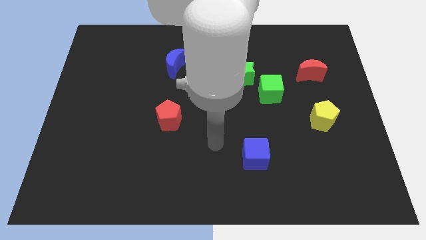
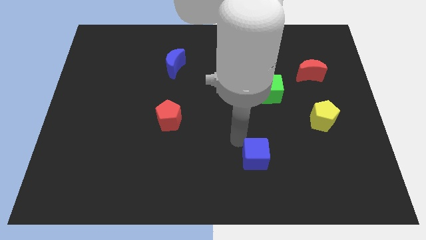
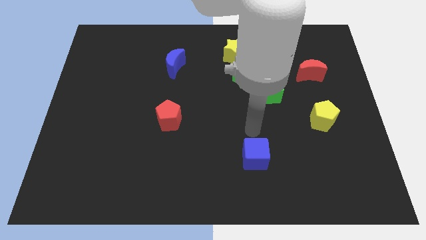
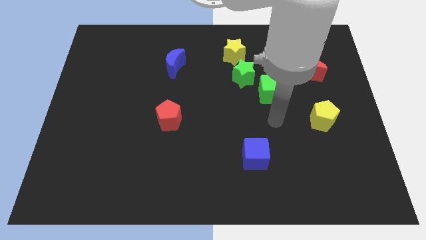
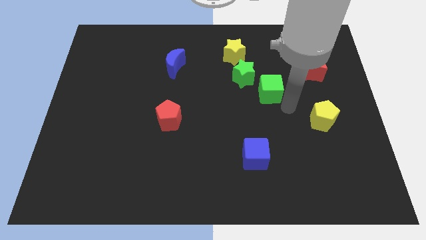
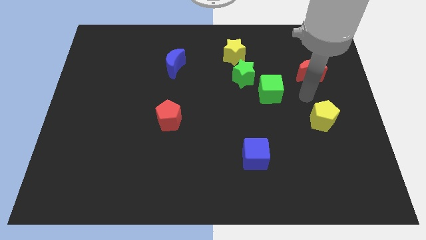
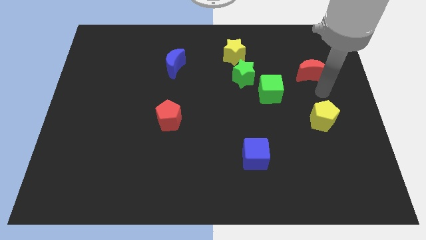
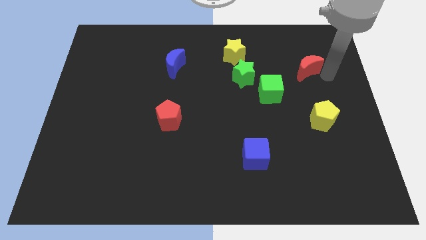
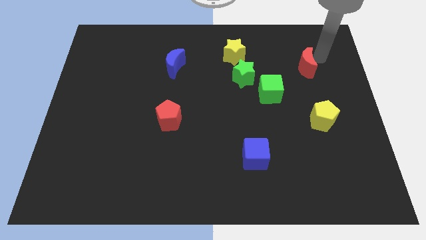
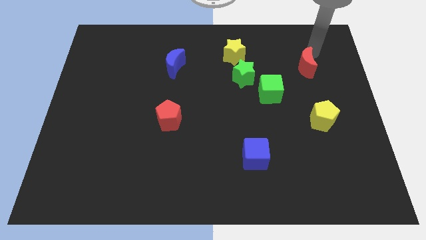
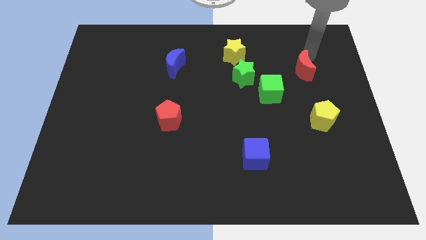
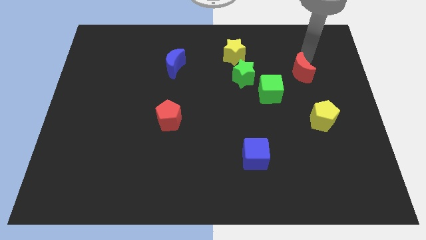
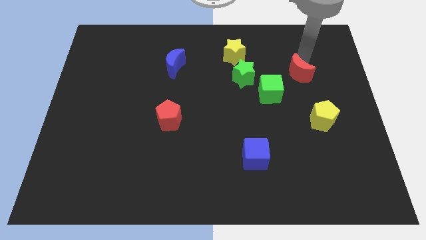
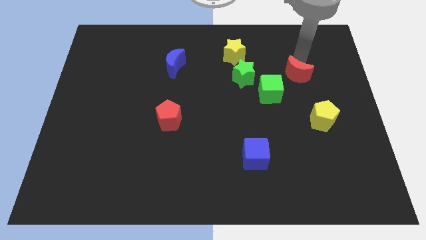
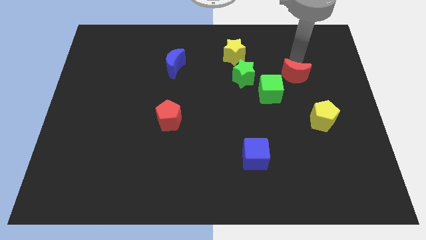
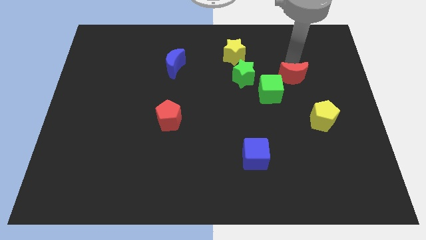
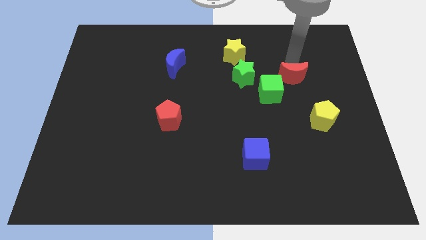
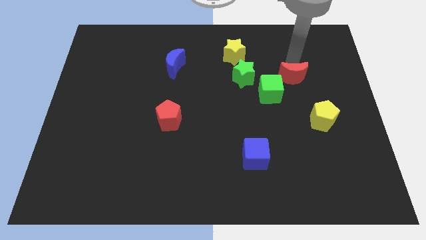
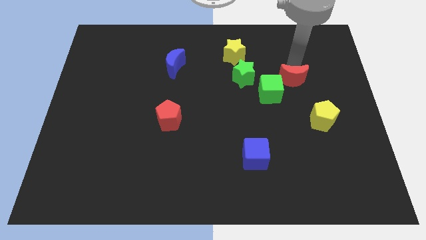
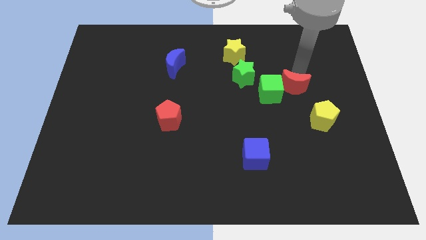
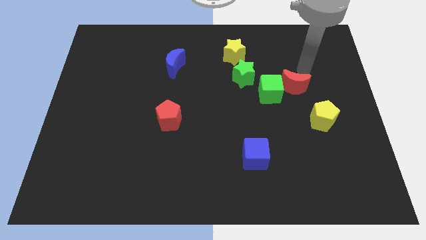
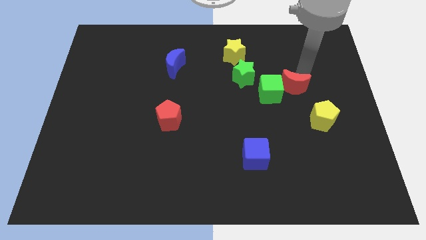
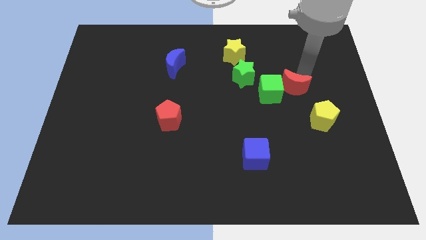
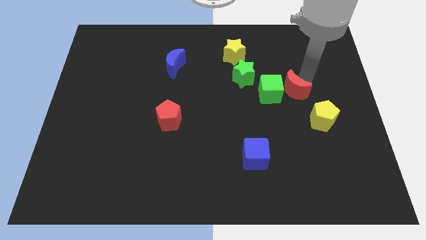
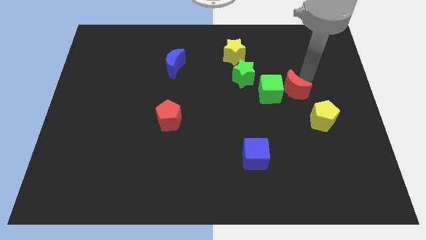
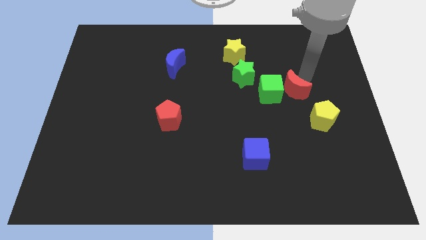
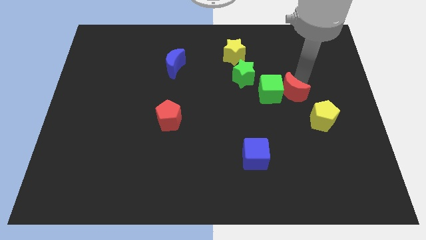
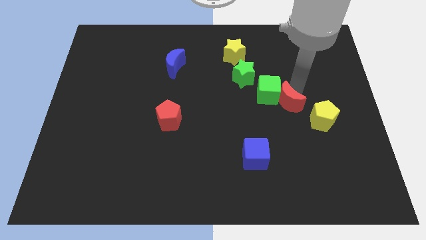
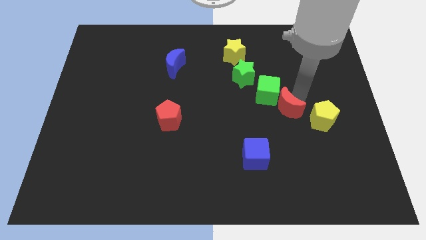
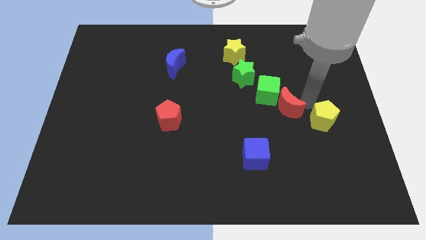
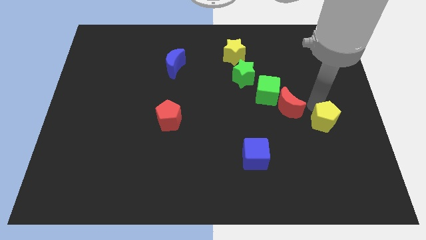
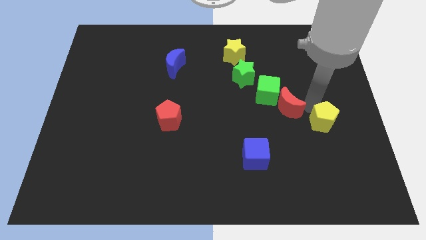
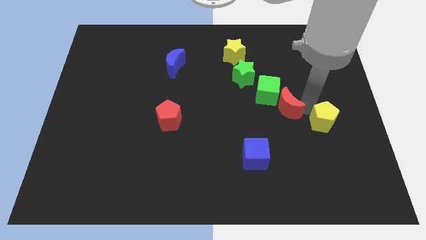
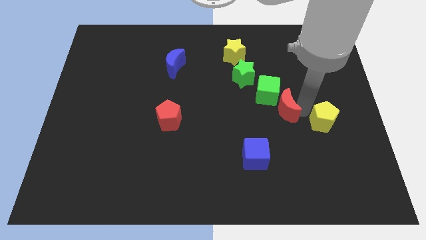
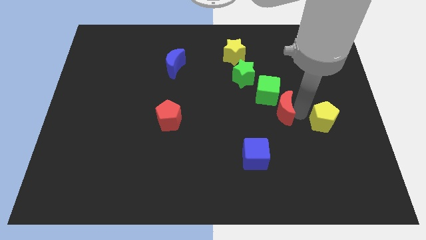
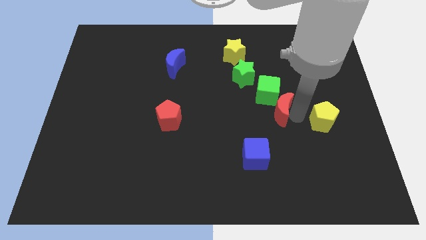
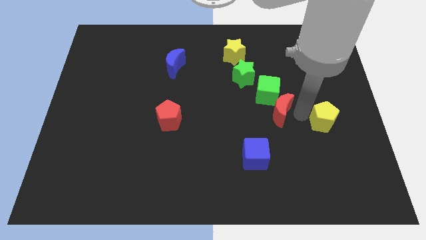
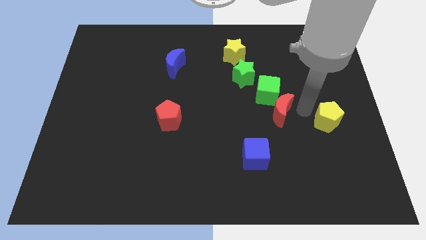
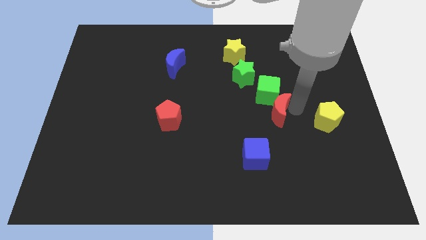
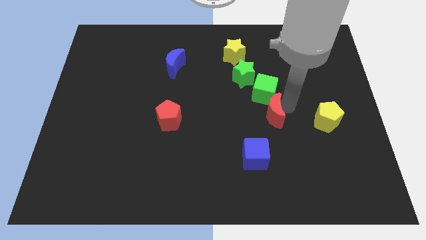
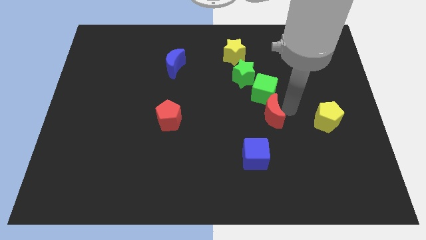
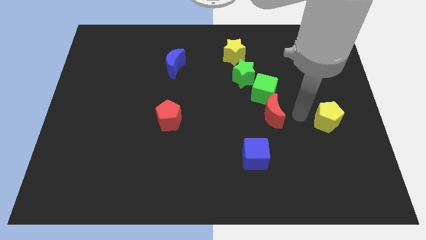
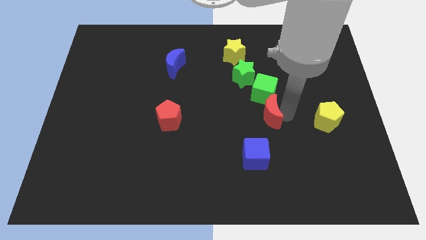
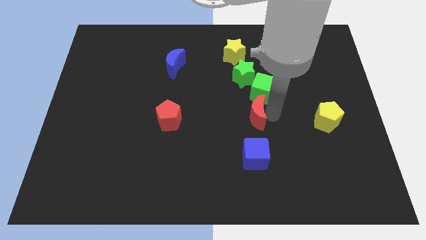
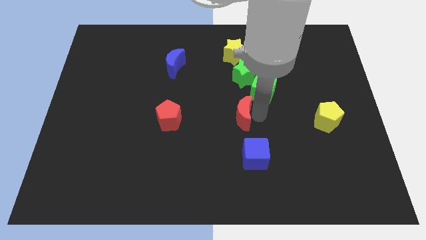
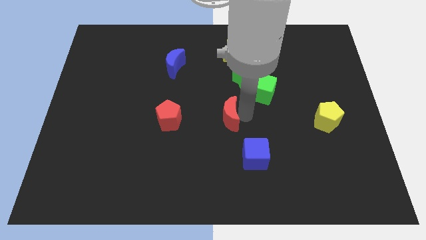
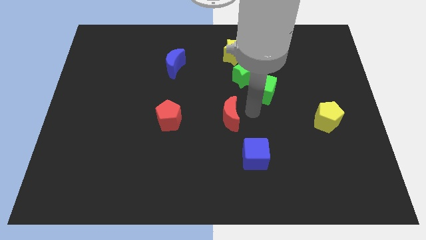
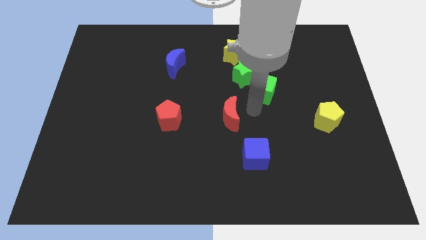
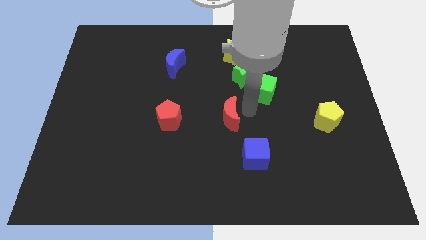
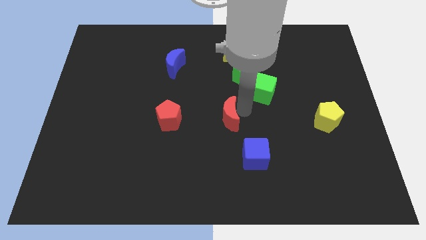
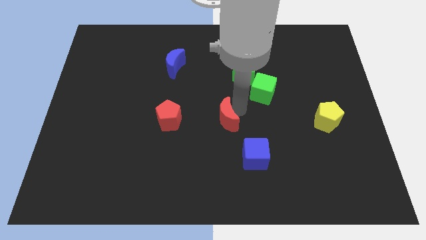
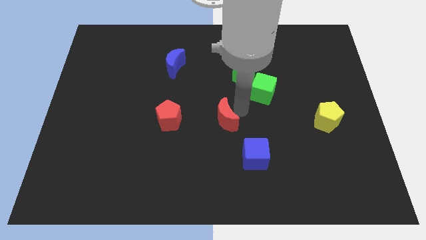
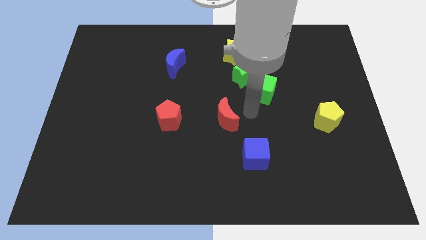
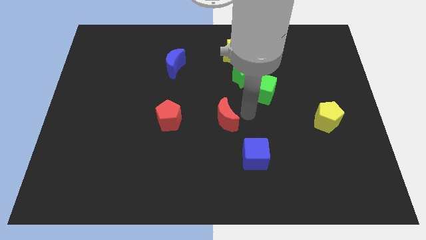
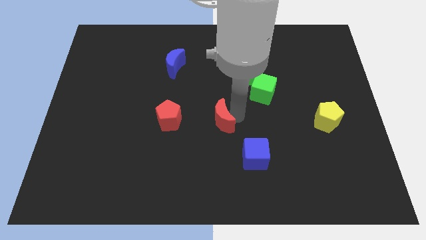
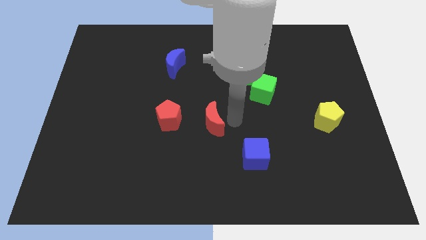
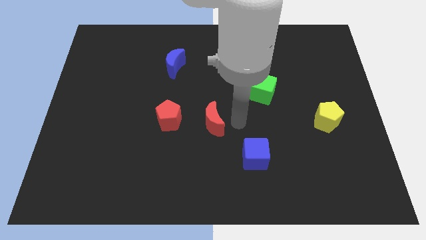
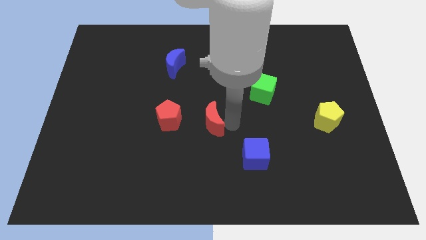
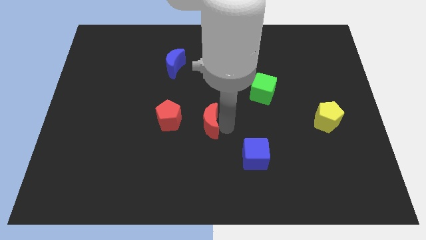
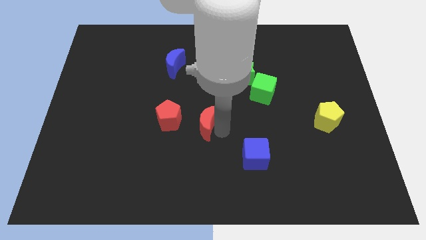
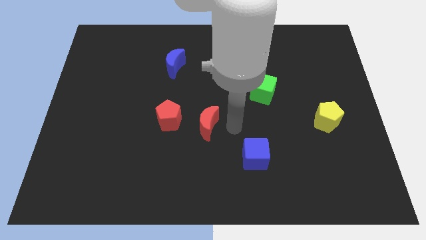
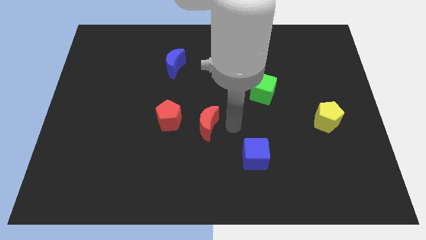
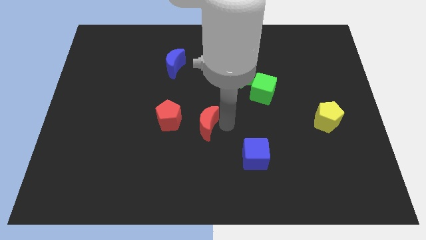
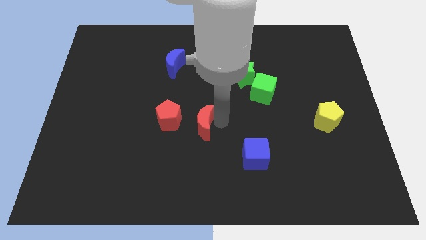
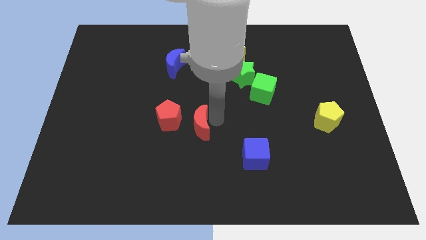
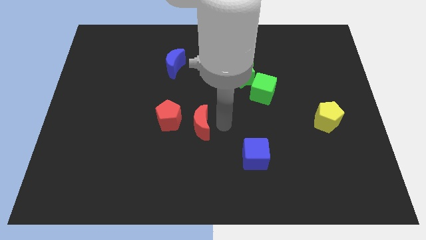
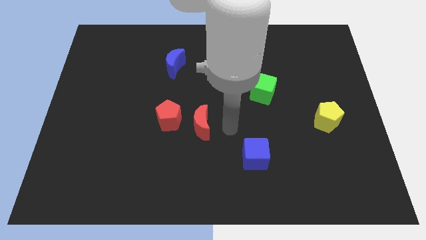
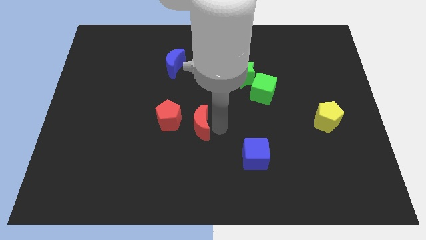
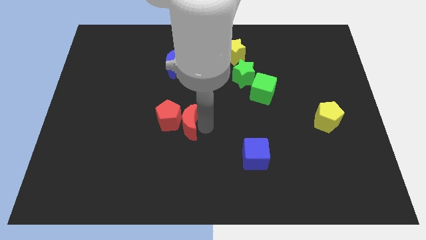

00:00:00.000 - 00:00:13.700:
put the red moon next to the red pentagon
